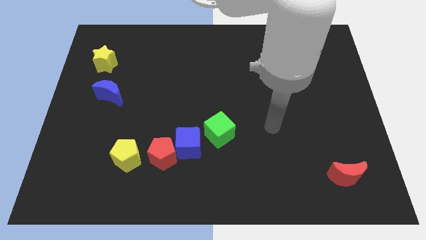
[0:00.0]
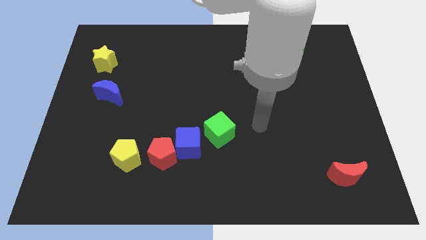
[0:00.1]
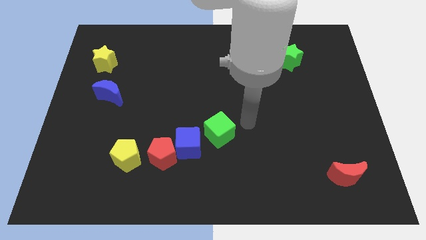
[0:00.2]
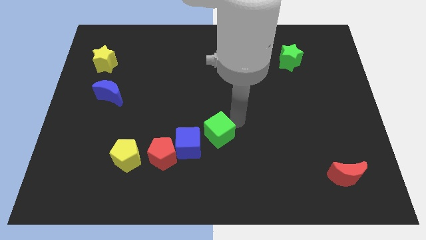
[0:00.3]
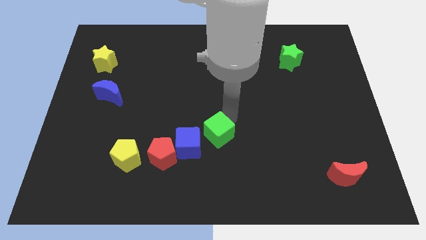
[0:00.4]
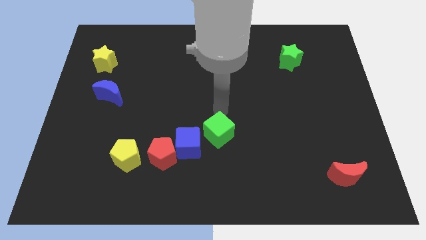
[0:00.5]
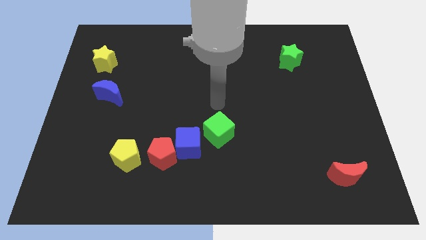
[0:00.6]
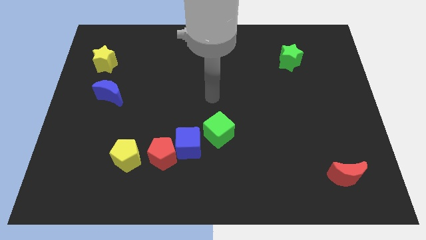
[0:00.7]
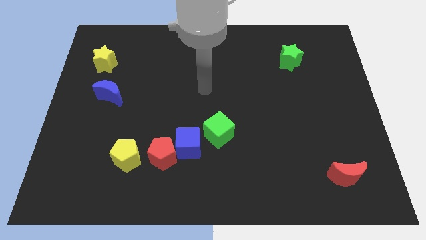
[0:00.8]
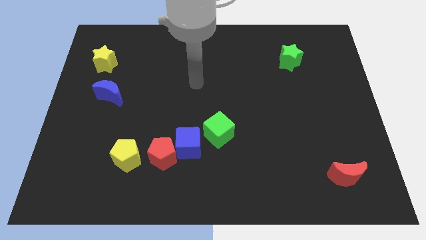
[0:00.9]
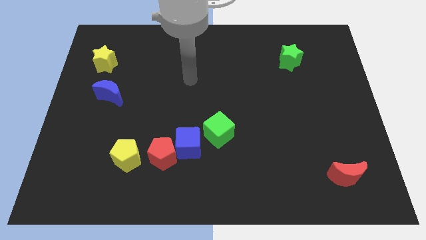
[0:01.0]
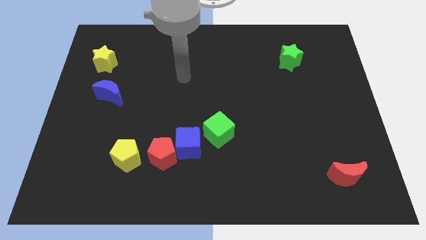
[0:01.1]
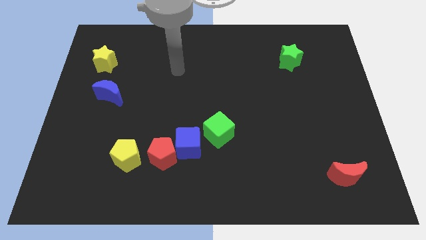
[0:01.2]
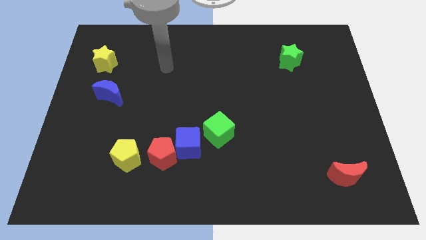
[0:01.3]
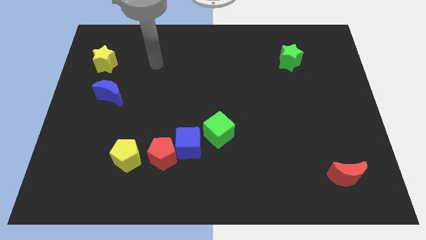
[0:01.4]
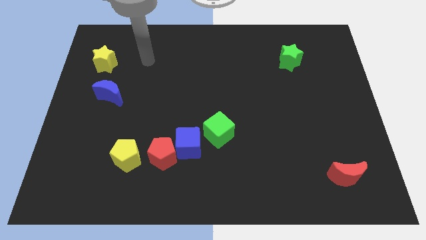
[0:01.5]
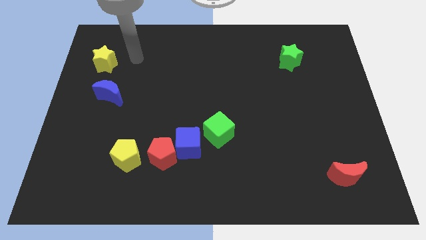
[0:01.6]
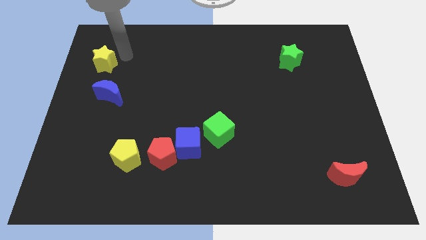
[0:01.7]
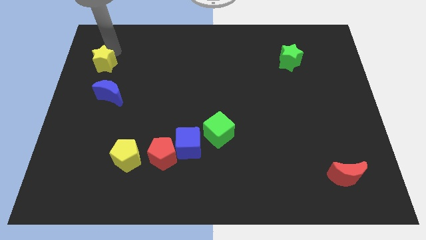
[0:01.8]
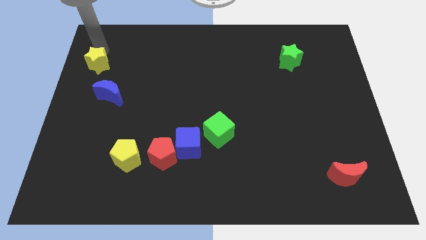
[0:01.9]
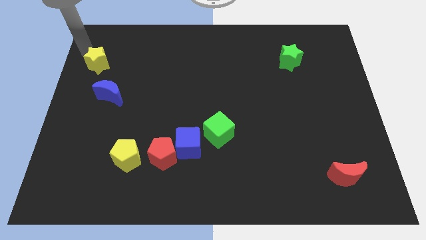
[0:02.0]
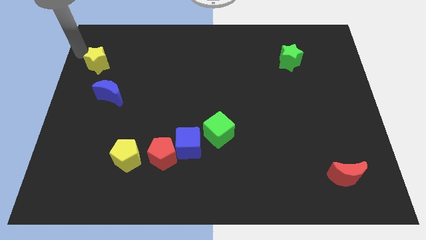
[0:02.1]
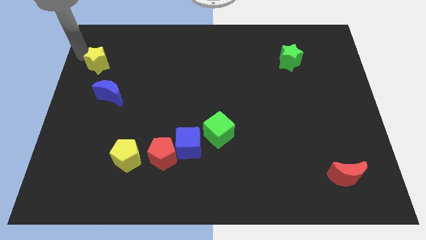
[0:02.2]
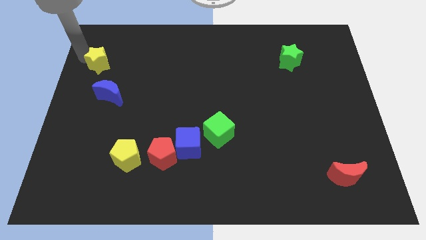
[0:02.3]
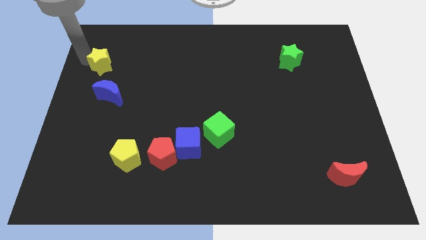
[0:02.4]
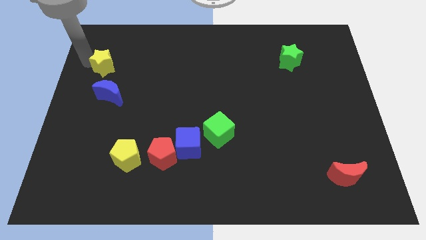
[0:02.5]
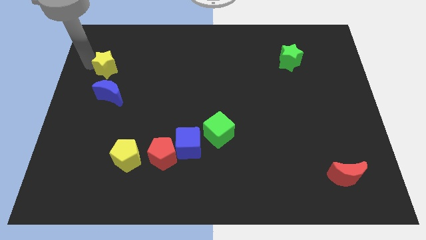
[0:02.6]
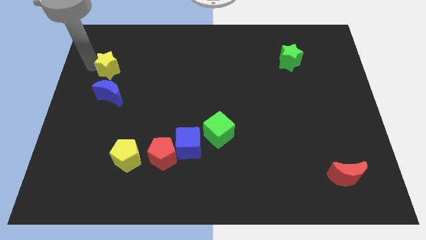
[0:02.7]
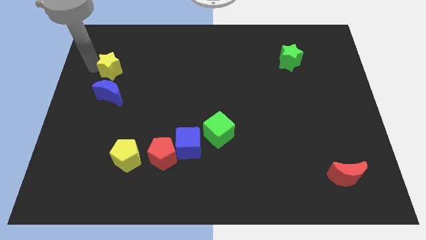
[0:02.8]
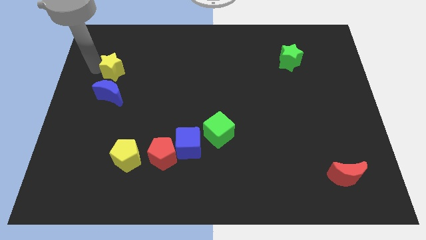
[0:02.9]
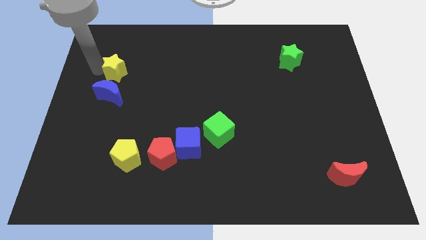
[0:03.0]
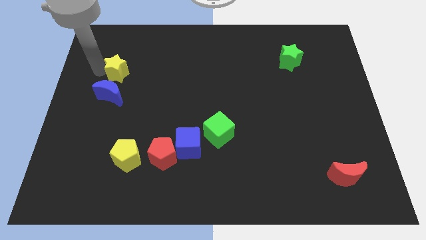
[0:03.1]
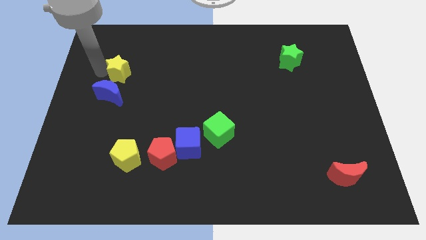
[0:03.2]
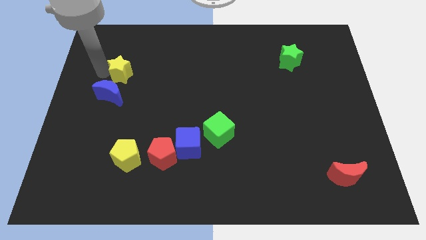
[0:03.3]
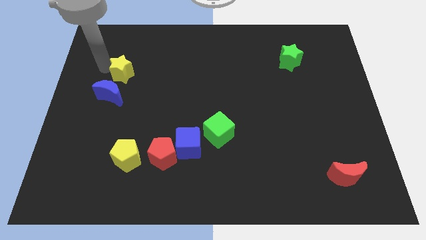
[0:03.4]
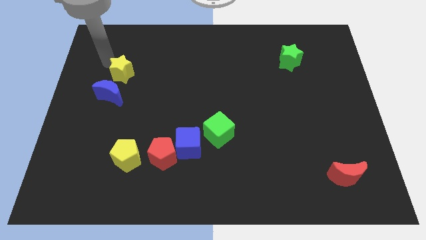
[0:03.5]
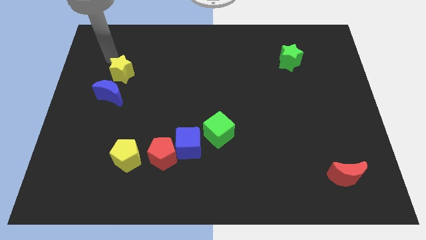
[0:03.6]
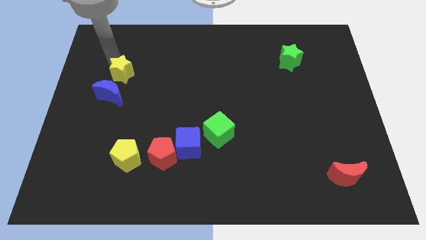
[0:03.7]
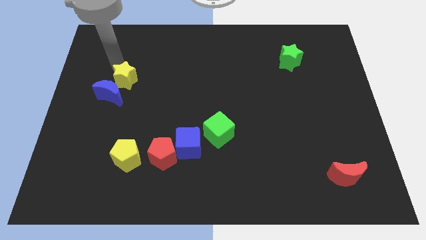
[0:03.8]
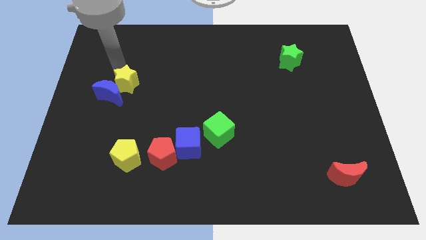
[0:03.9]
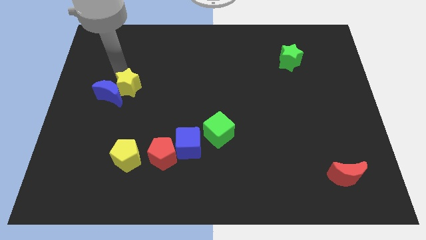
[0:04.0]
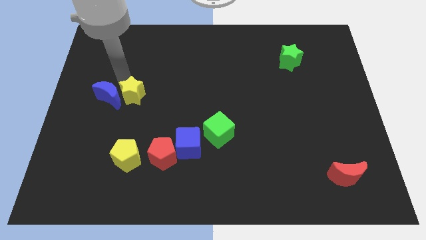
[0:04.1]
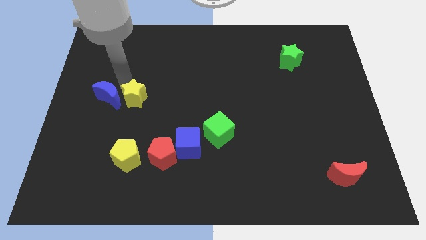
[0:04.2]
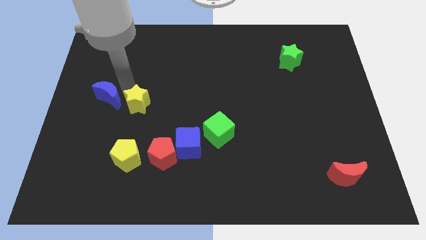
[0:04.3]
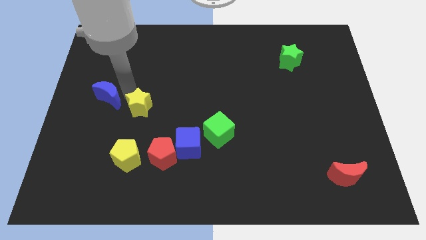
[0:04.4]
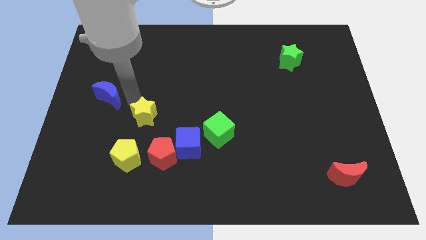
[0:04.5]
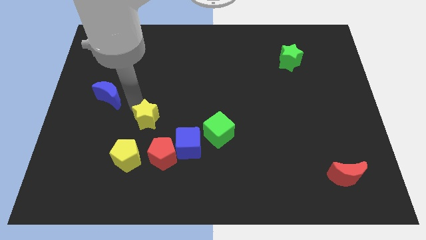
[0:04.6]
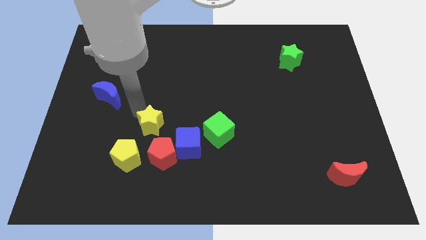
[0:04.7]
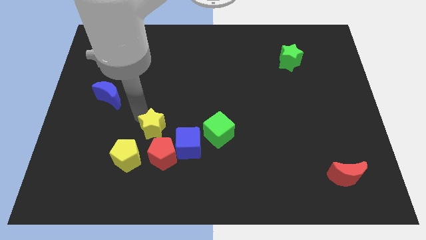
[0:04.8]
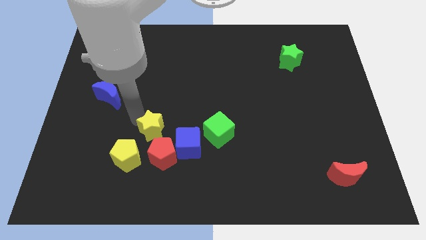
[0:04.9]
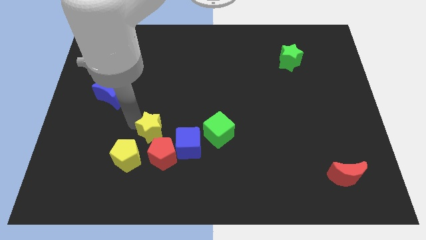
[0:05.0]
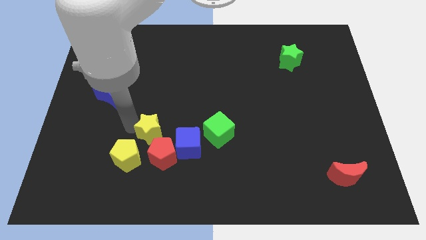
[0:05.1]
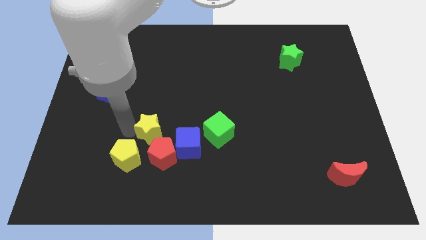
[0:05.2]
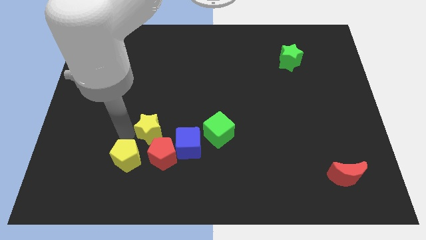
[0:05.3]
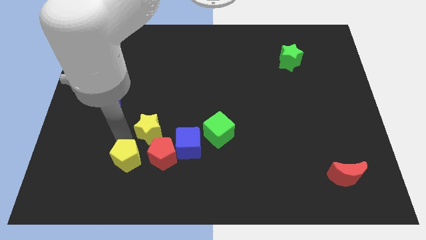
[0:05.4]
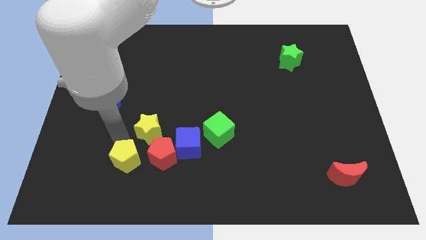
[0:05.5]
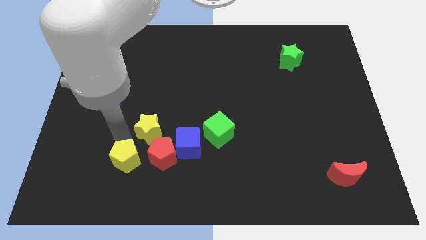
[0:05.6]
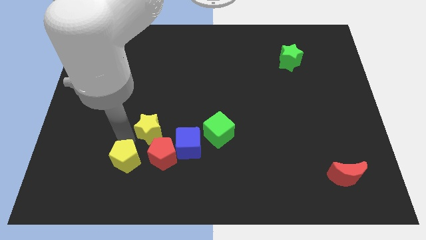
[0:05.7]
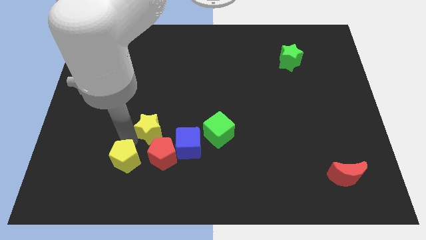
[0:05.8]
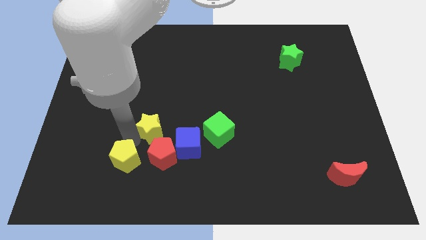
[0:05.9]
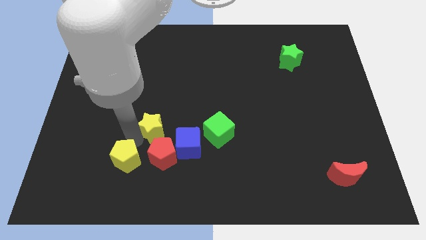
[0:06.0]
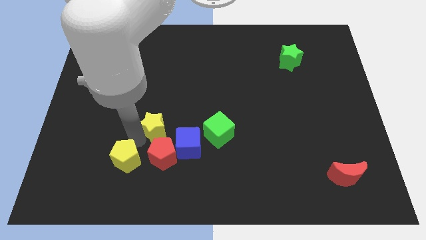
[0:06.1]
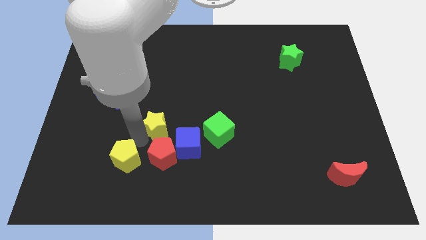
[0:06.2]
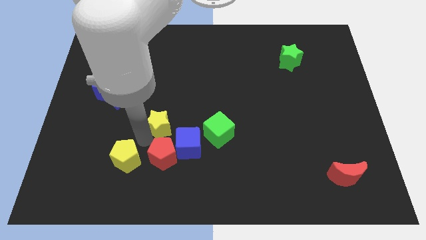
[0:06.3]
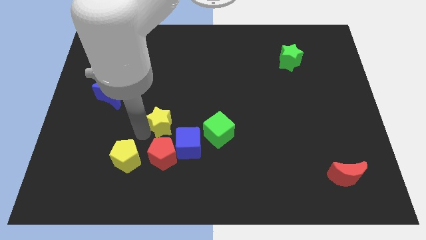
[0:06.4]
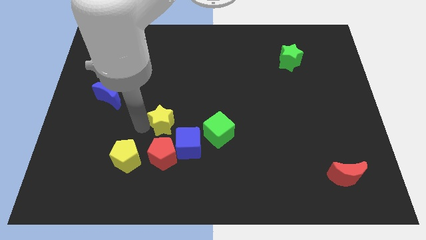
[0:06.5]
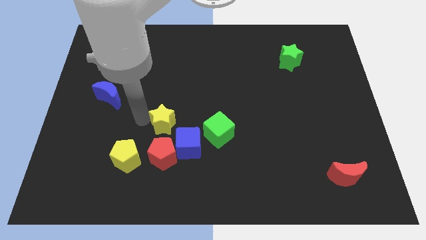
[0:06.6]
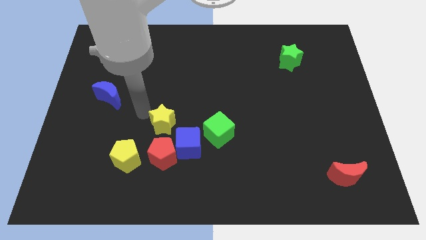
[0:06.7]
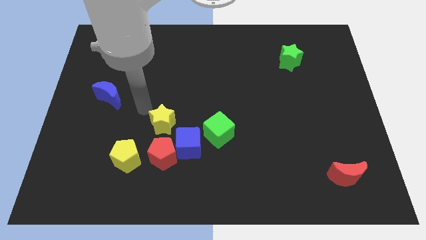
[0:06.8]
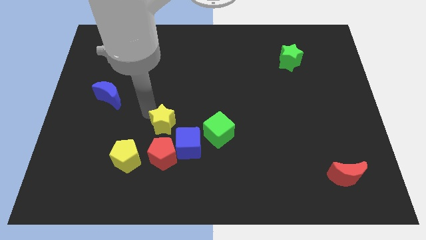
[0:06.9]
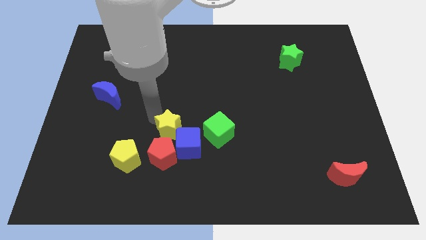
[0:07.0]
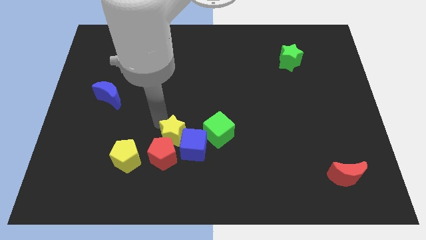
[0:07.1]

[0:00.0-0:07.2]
slide the yellow star close to the blue cube
